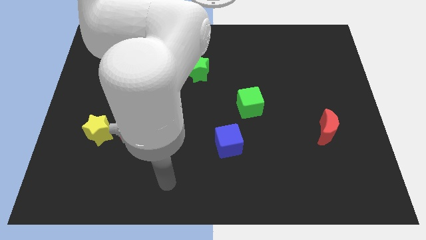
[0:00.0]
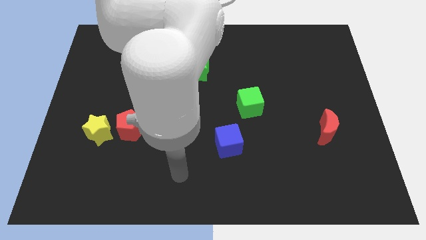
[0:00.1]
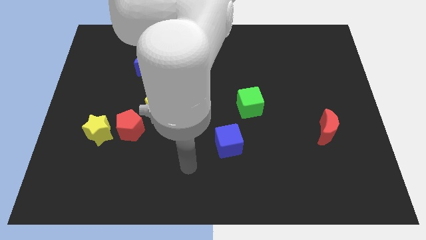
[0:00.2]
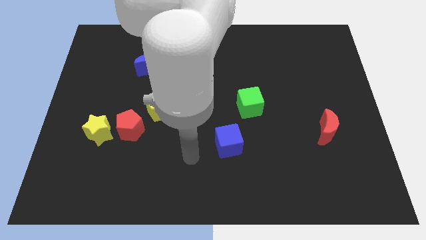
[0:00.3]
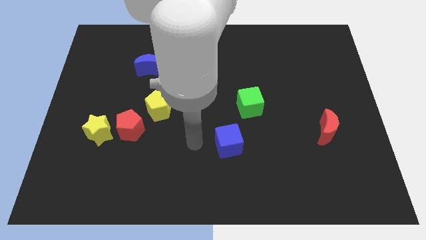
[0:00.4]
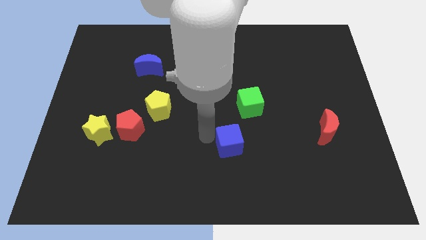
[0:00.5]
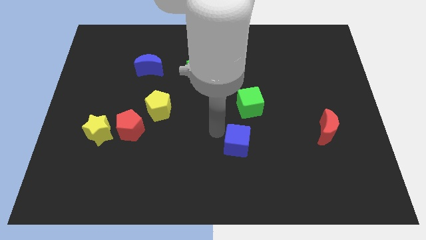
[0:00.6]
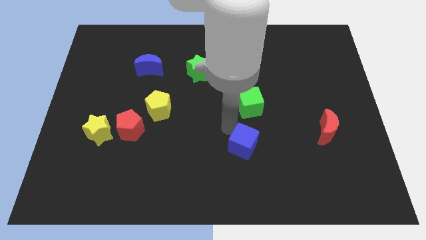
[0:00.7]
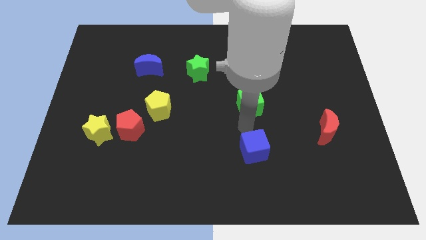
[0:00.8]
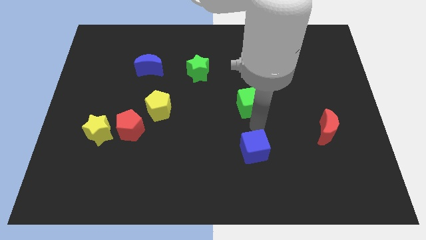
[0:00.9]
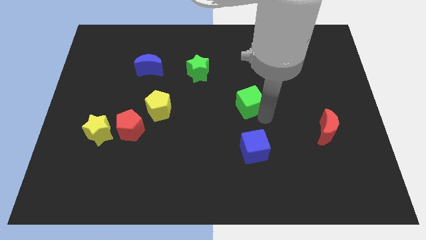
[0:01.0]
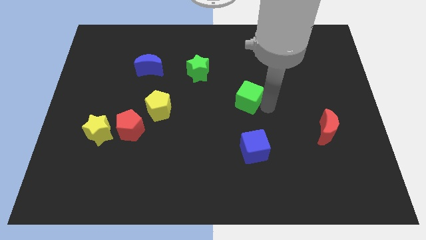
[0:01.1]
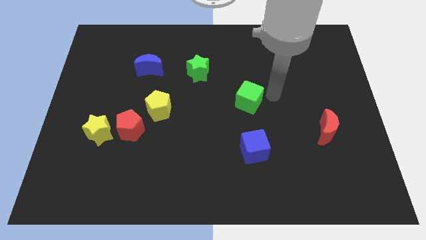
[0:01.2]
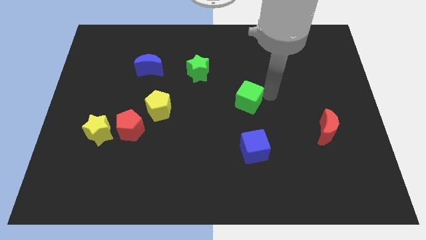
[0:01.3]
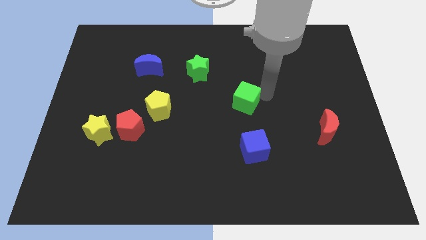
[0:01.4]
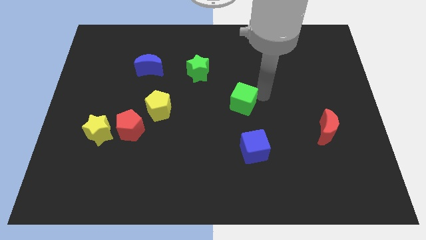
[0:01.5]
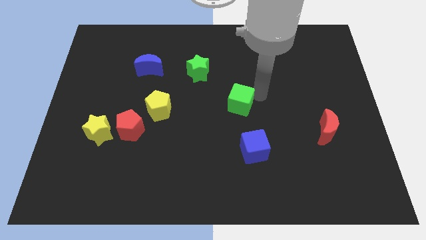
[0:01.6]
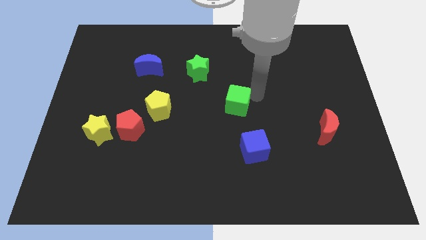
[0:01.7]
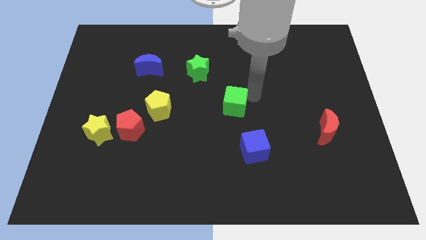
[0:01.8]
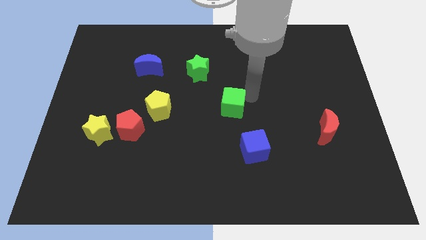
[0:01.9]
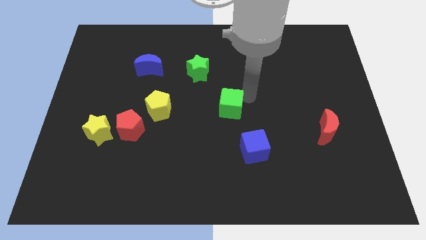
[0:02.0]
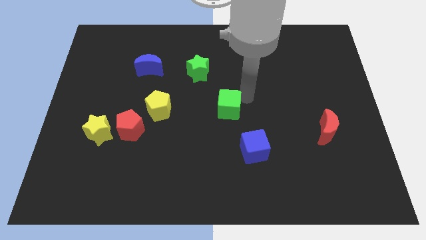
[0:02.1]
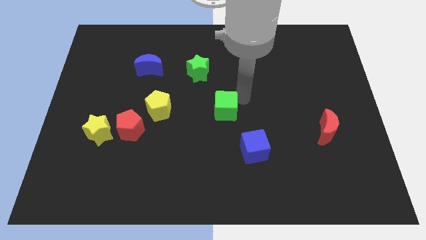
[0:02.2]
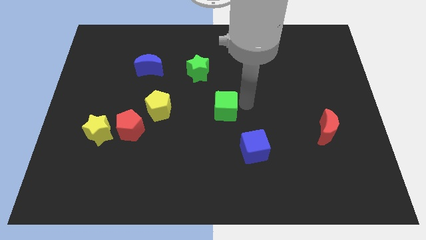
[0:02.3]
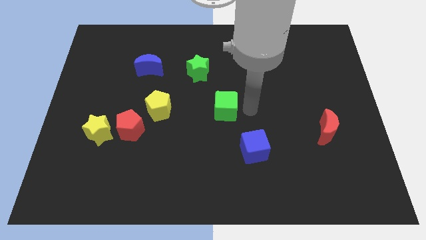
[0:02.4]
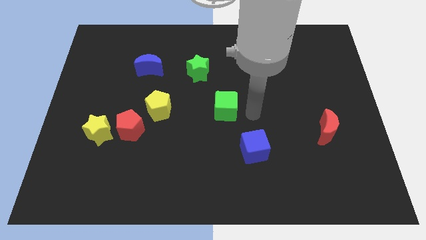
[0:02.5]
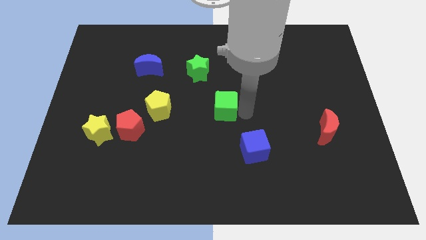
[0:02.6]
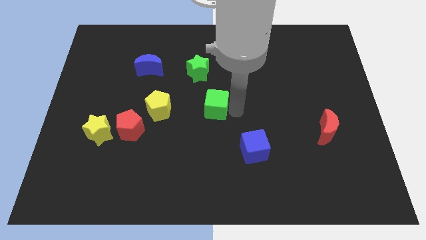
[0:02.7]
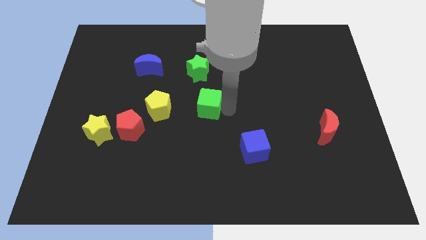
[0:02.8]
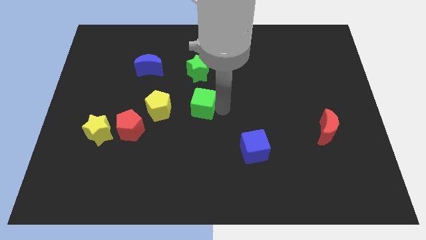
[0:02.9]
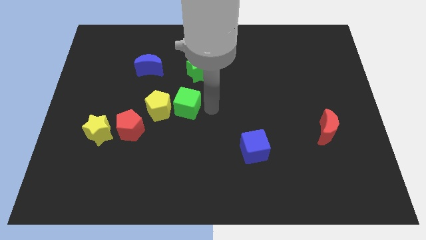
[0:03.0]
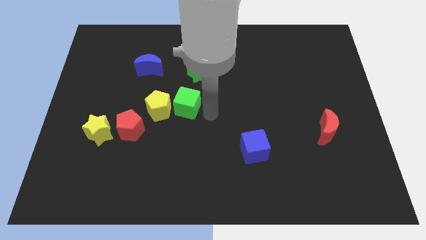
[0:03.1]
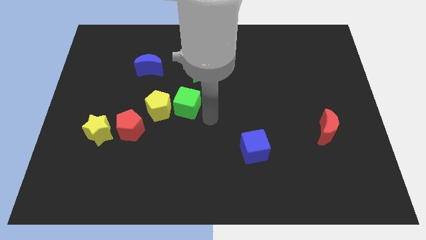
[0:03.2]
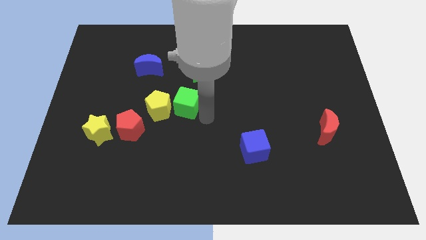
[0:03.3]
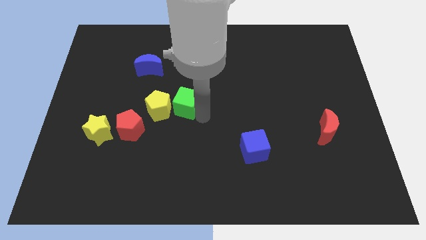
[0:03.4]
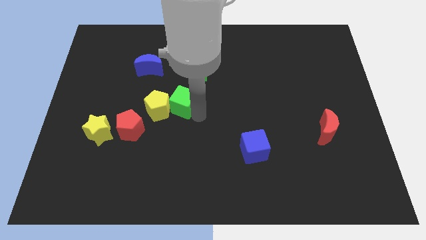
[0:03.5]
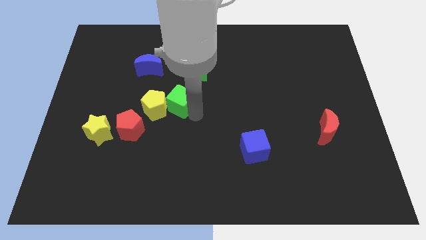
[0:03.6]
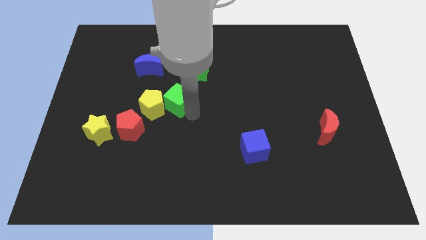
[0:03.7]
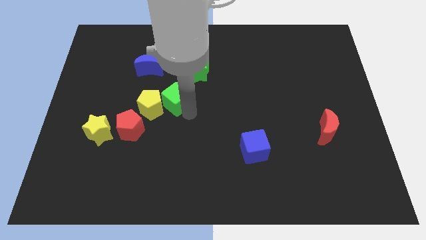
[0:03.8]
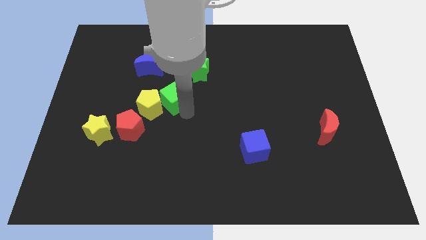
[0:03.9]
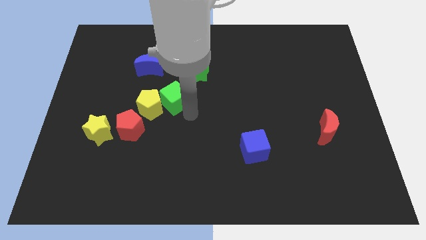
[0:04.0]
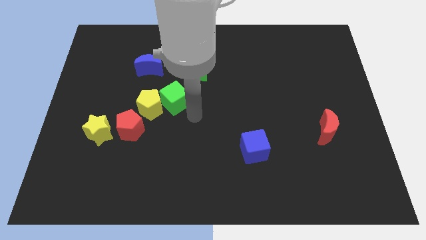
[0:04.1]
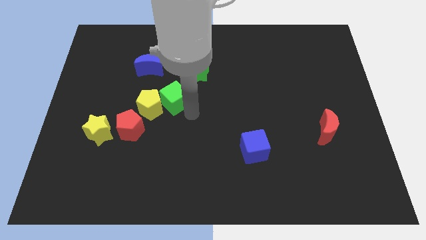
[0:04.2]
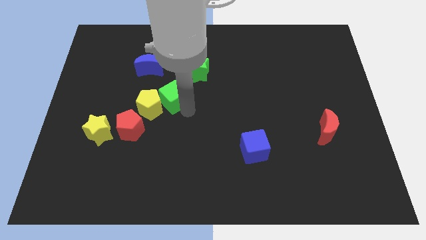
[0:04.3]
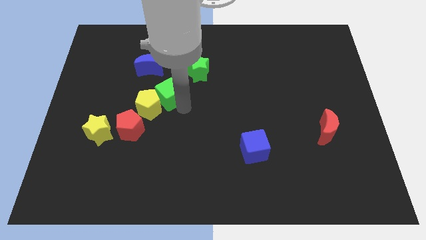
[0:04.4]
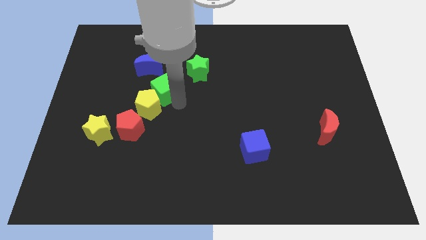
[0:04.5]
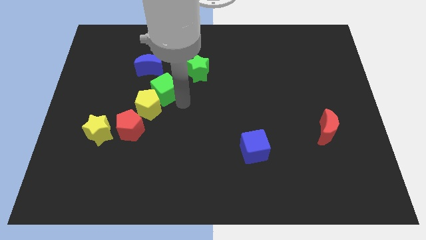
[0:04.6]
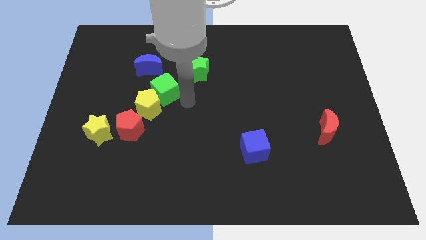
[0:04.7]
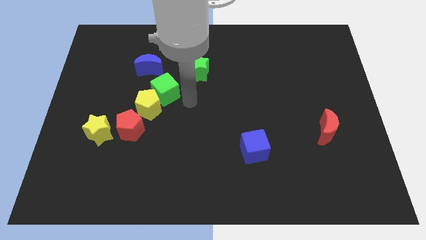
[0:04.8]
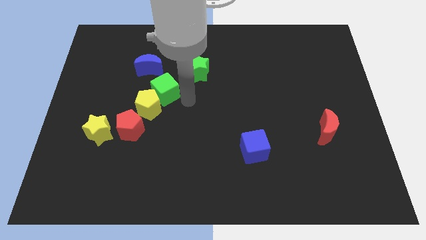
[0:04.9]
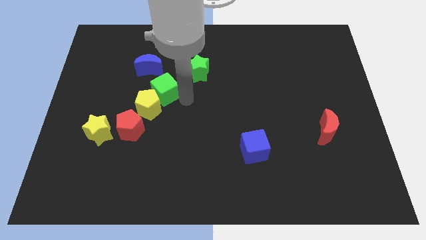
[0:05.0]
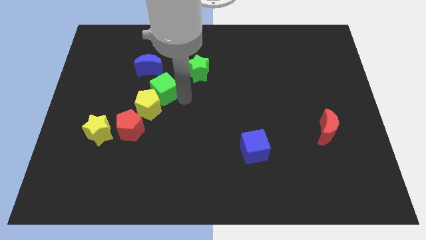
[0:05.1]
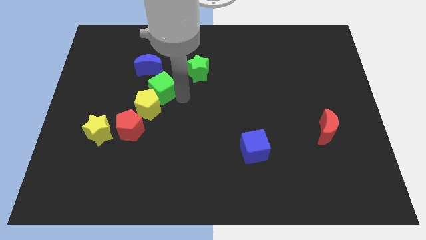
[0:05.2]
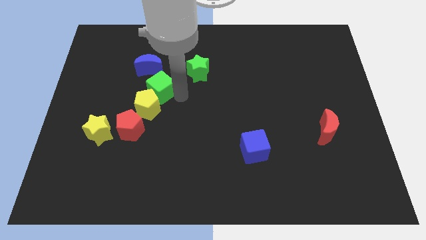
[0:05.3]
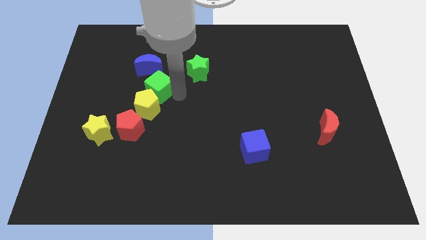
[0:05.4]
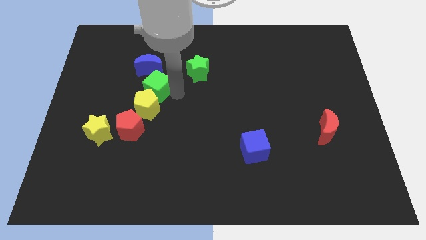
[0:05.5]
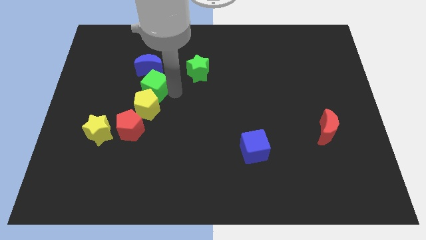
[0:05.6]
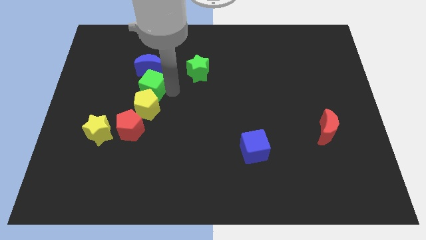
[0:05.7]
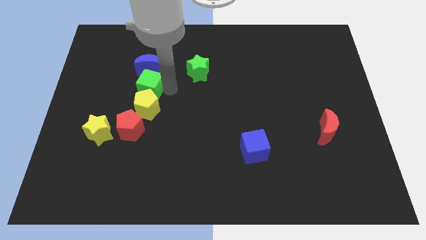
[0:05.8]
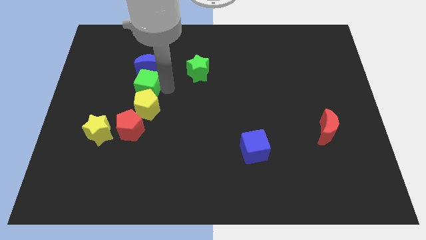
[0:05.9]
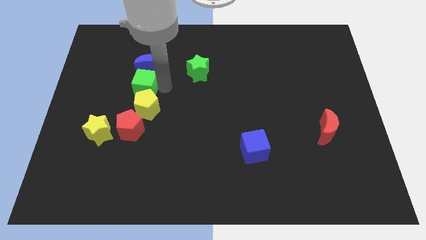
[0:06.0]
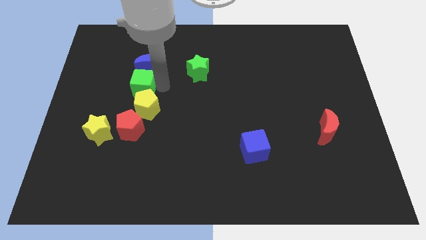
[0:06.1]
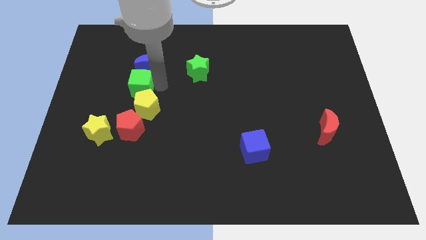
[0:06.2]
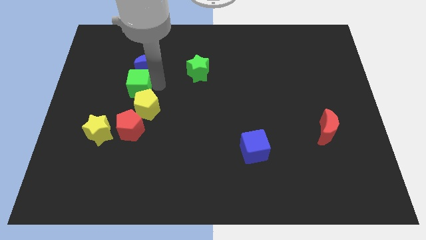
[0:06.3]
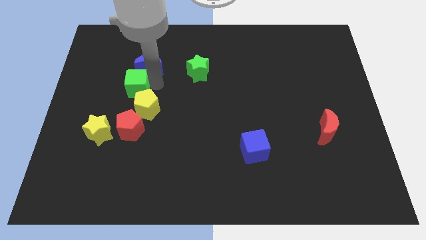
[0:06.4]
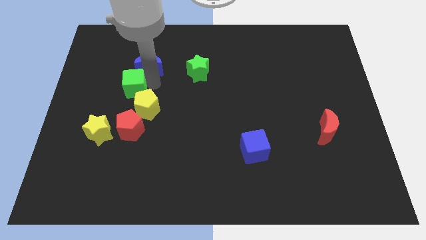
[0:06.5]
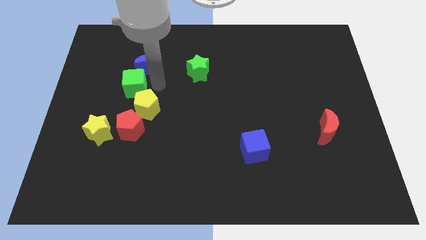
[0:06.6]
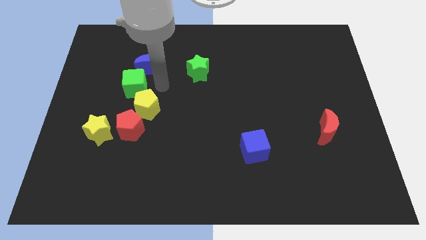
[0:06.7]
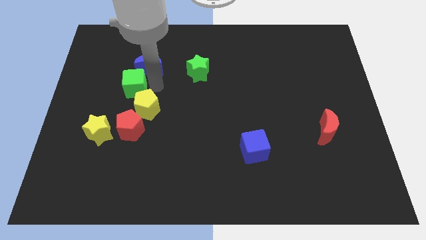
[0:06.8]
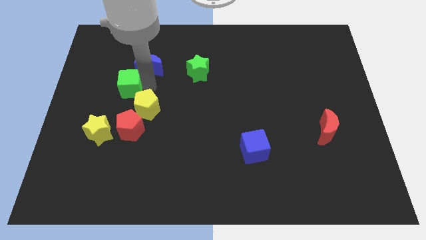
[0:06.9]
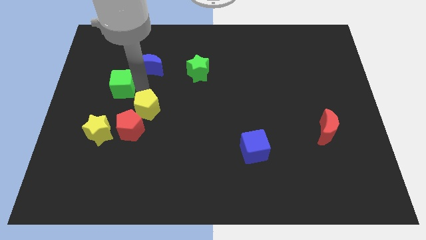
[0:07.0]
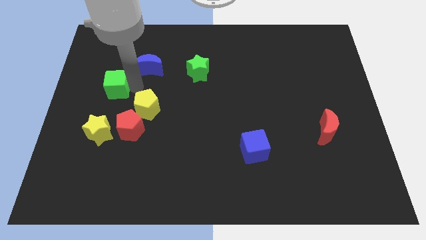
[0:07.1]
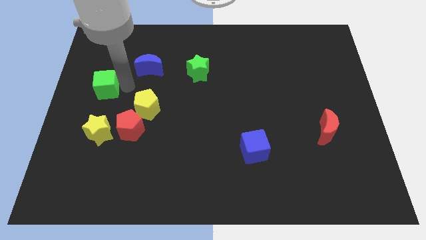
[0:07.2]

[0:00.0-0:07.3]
move the green cube to the center left

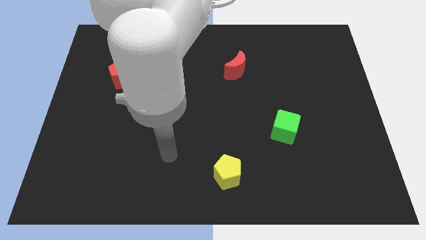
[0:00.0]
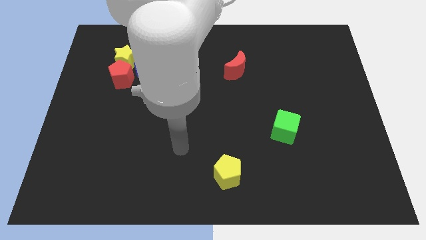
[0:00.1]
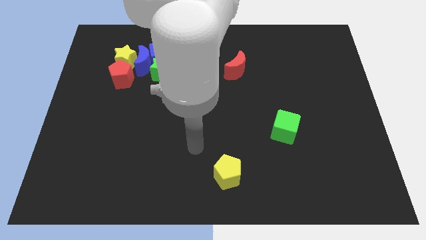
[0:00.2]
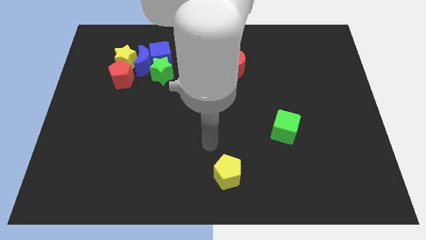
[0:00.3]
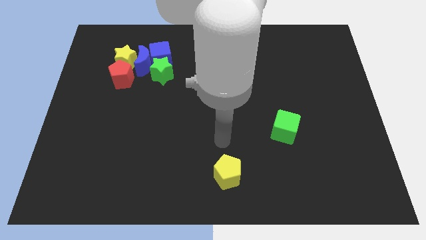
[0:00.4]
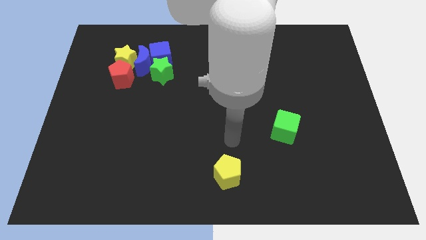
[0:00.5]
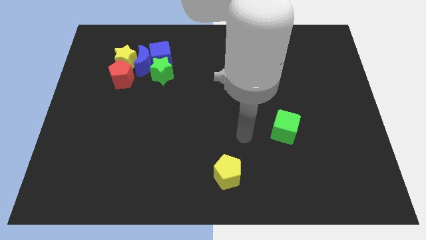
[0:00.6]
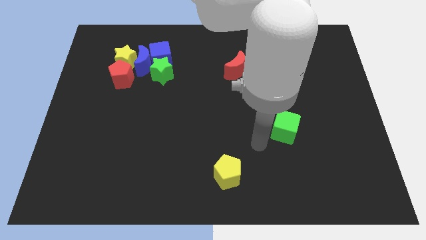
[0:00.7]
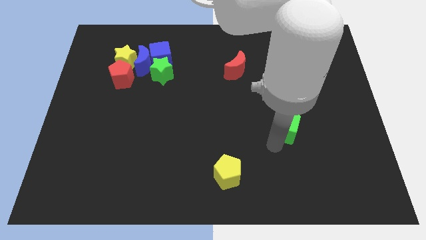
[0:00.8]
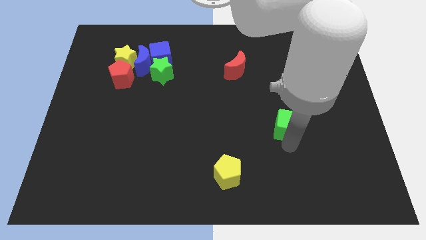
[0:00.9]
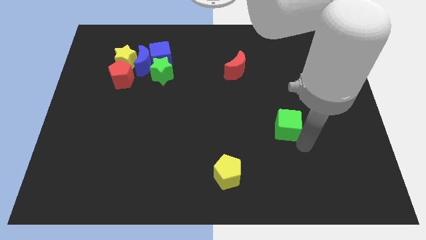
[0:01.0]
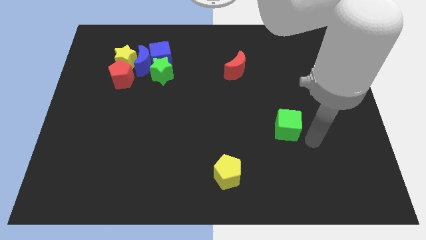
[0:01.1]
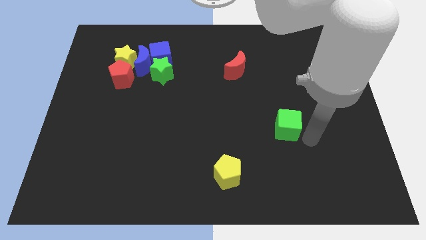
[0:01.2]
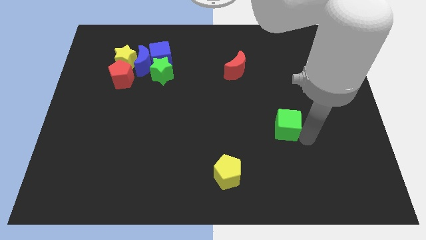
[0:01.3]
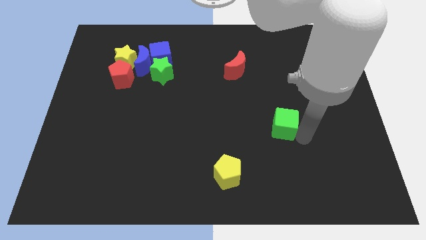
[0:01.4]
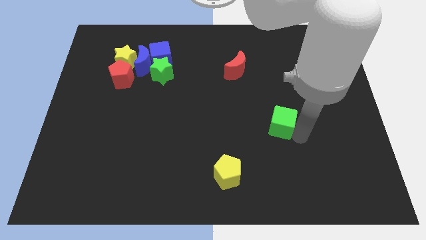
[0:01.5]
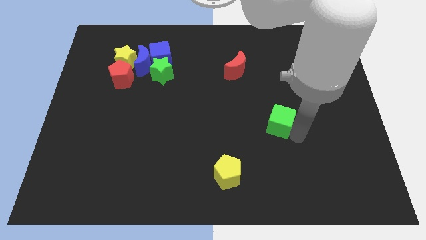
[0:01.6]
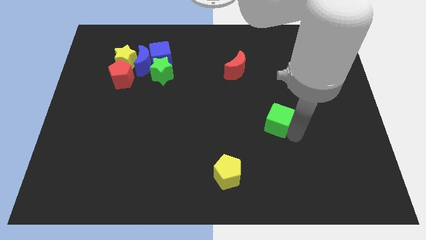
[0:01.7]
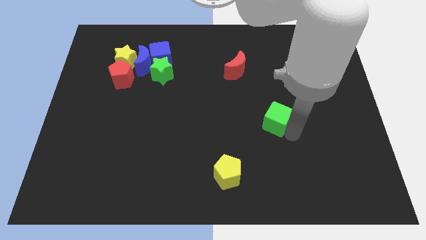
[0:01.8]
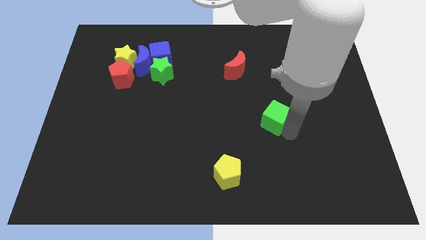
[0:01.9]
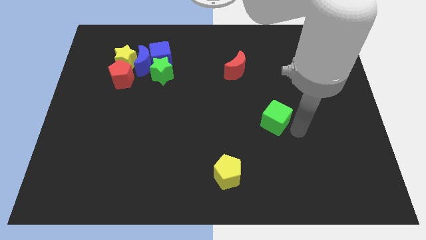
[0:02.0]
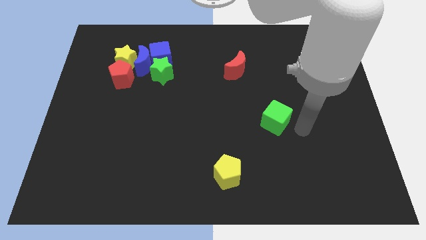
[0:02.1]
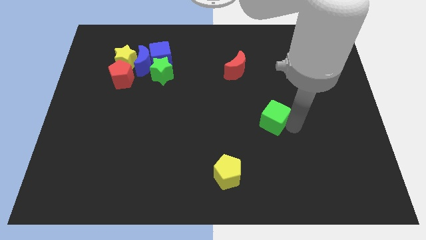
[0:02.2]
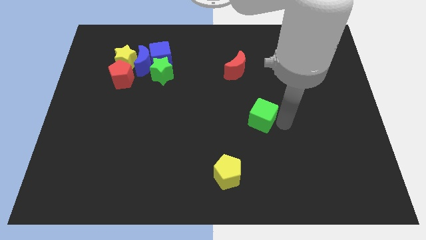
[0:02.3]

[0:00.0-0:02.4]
slide the green cube to the center of the board
